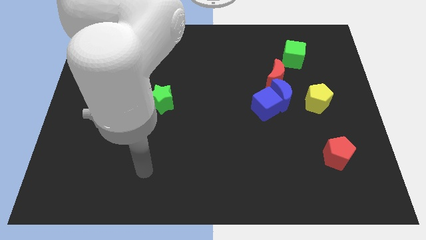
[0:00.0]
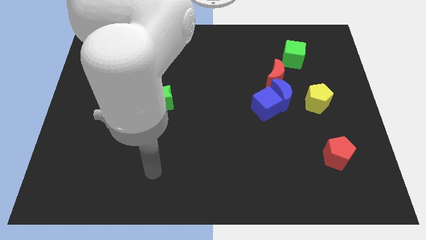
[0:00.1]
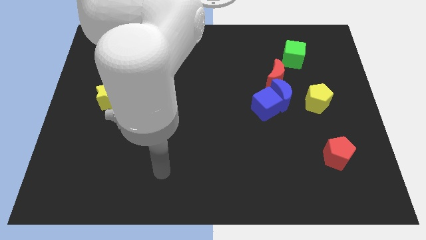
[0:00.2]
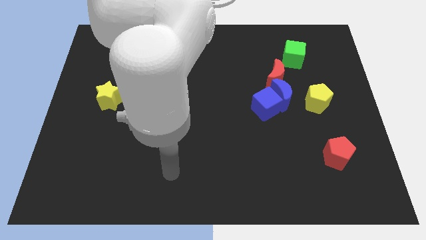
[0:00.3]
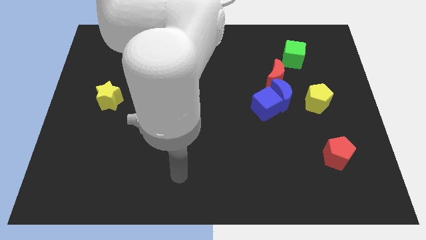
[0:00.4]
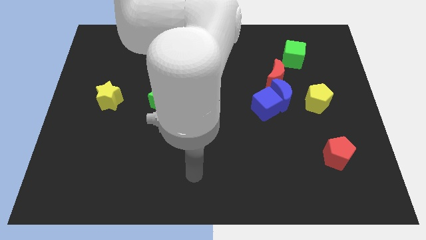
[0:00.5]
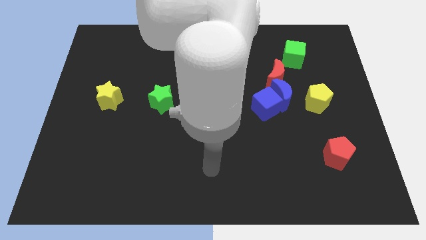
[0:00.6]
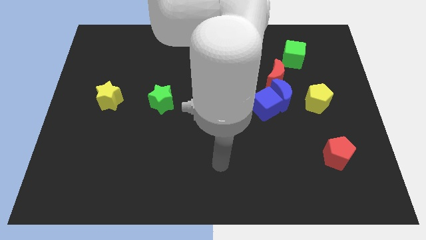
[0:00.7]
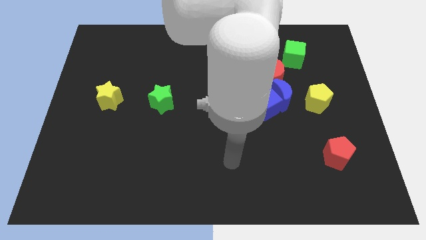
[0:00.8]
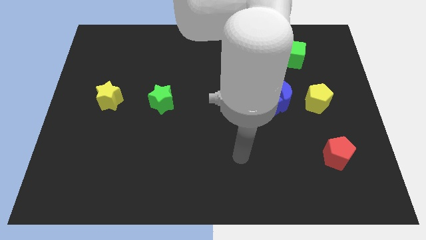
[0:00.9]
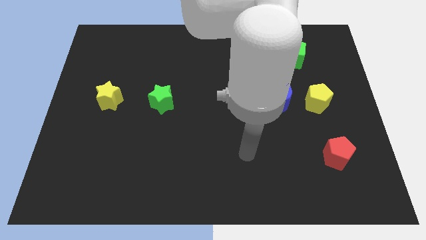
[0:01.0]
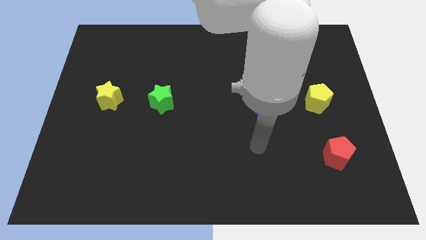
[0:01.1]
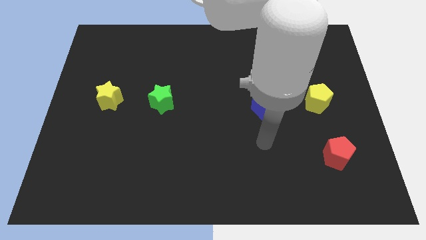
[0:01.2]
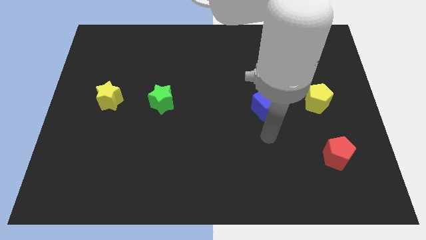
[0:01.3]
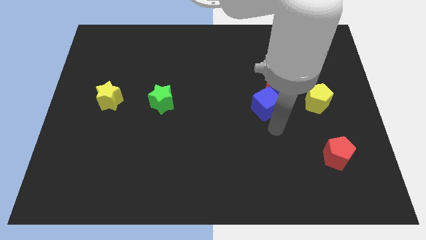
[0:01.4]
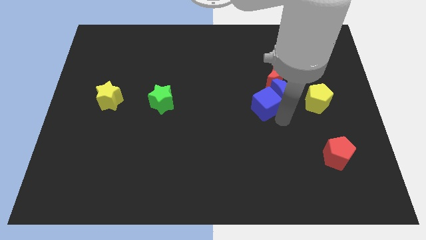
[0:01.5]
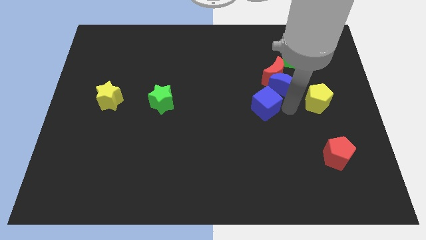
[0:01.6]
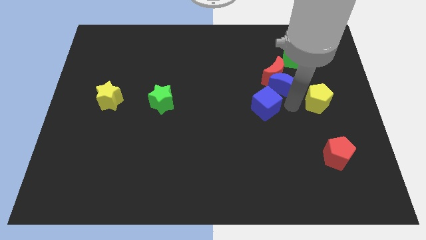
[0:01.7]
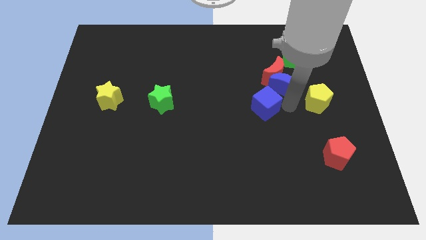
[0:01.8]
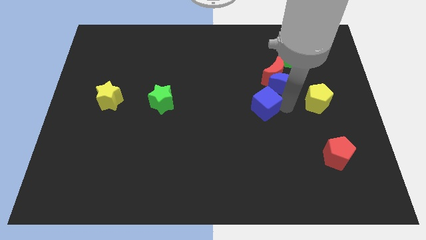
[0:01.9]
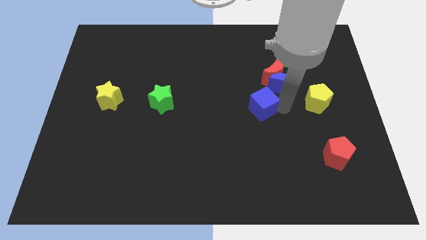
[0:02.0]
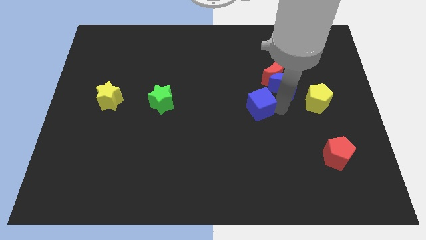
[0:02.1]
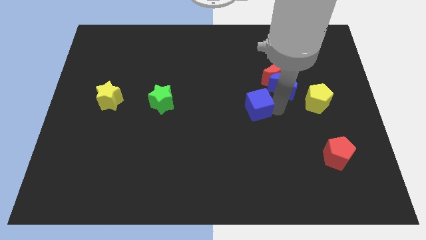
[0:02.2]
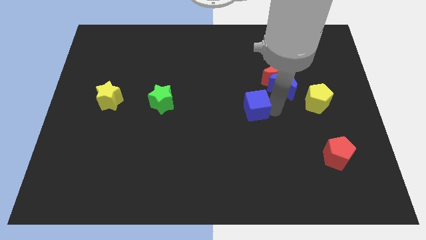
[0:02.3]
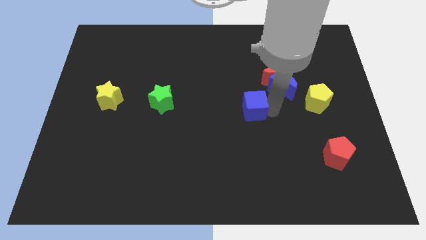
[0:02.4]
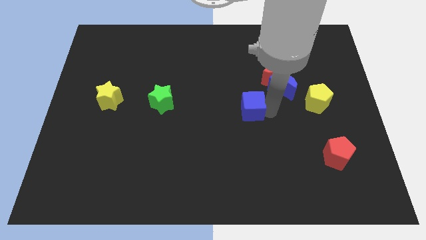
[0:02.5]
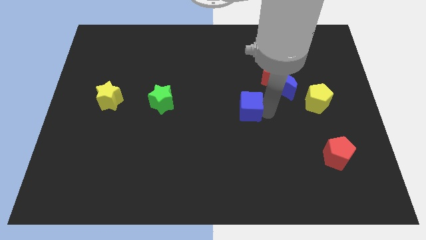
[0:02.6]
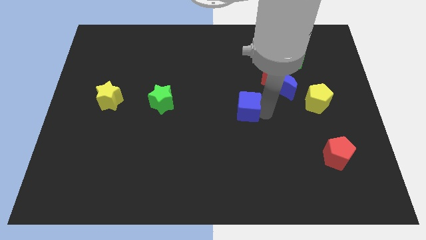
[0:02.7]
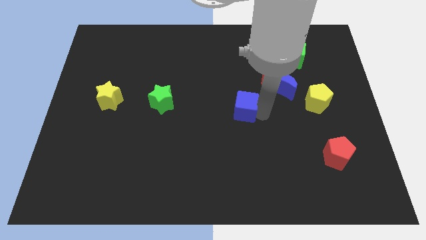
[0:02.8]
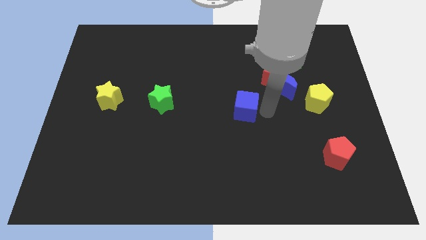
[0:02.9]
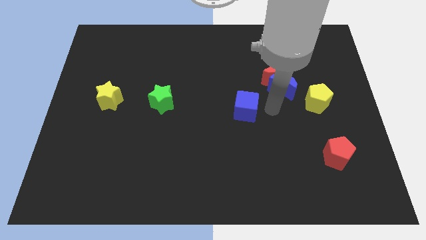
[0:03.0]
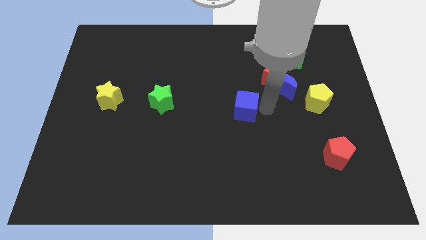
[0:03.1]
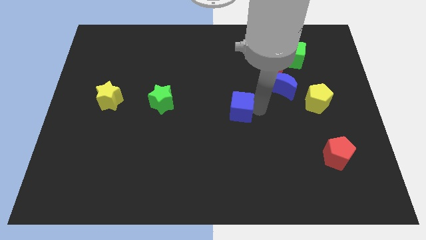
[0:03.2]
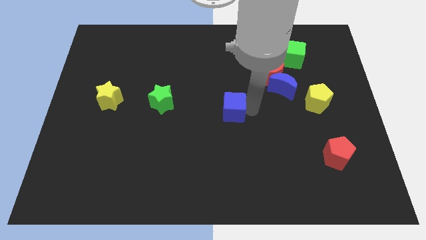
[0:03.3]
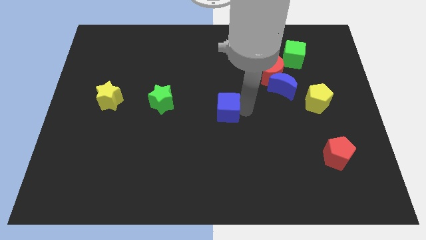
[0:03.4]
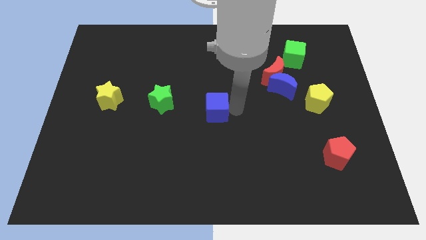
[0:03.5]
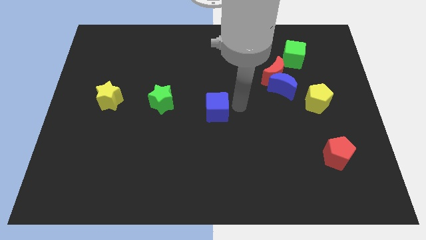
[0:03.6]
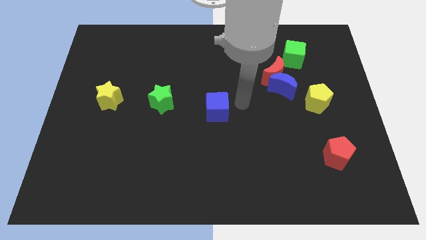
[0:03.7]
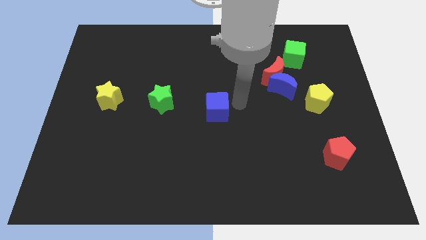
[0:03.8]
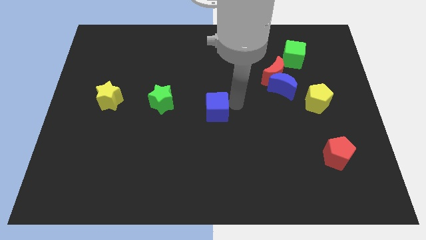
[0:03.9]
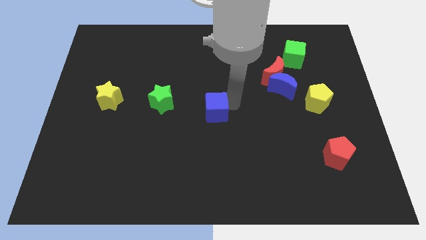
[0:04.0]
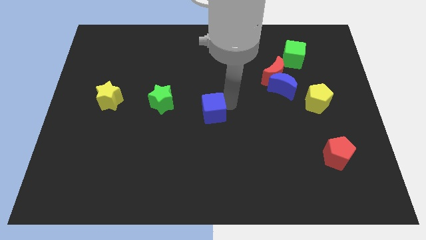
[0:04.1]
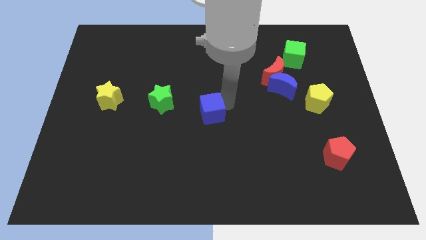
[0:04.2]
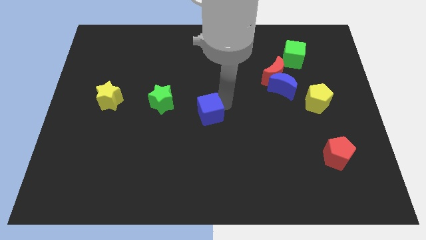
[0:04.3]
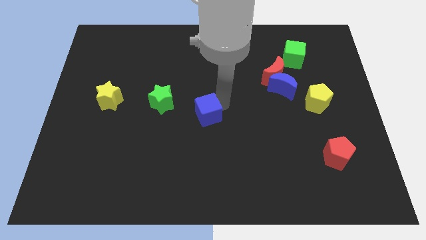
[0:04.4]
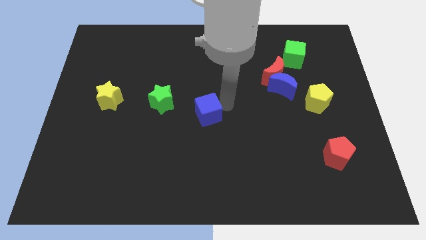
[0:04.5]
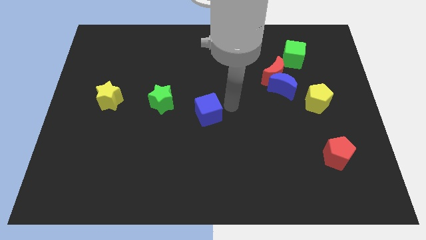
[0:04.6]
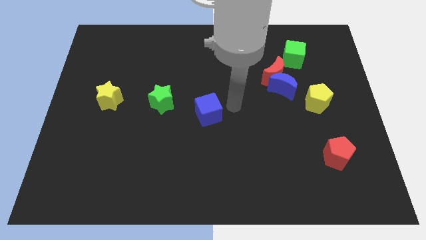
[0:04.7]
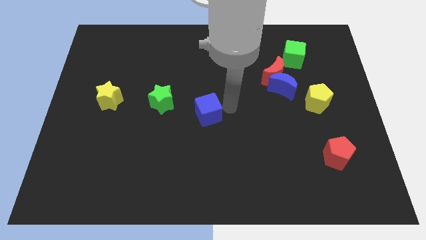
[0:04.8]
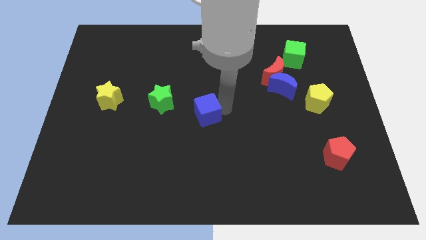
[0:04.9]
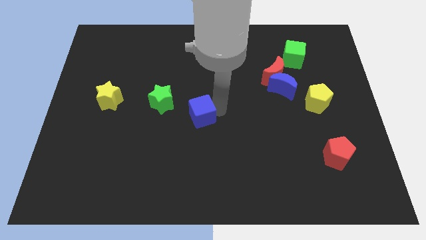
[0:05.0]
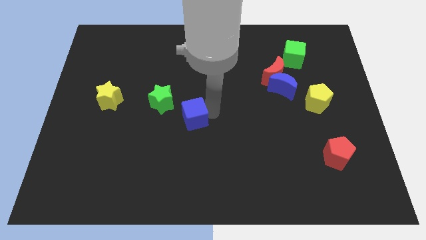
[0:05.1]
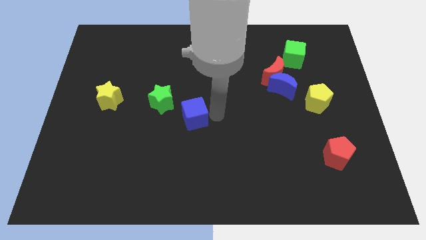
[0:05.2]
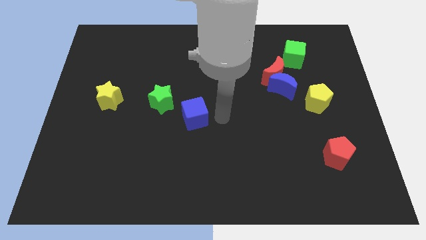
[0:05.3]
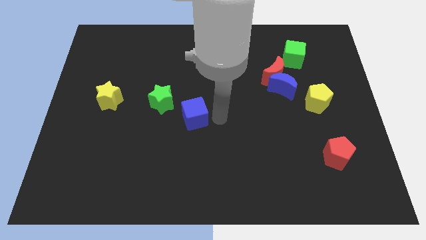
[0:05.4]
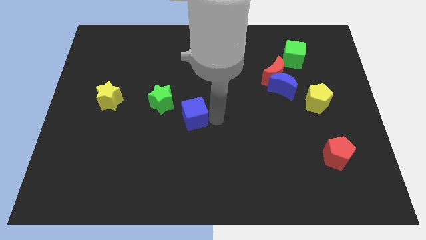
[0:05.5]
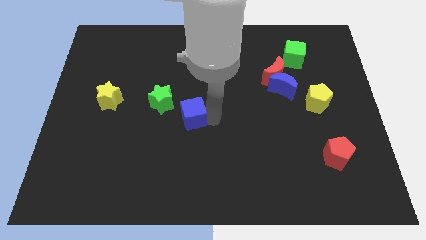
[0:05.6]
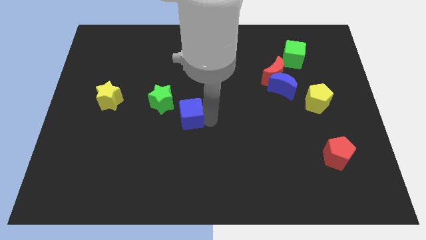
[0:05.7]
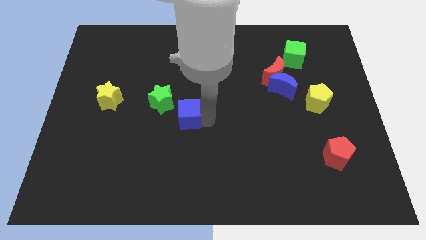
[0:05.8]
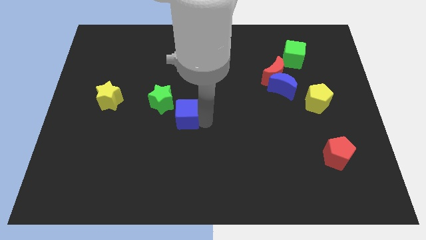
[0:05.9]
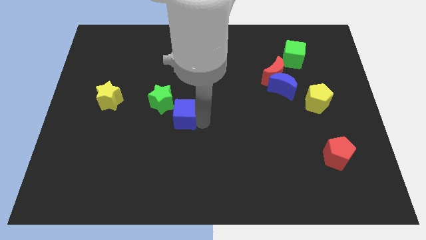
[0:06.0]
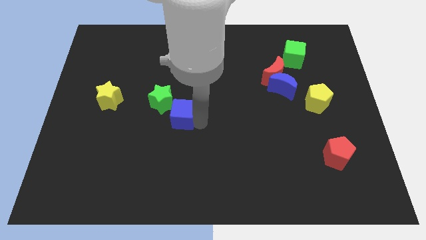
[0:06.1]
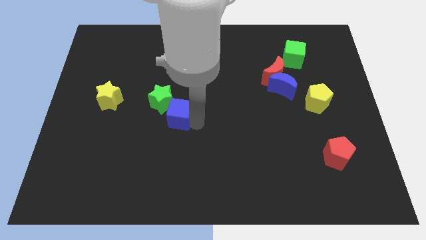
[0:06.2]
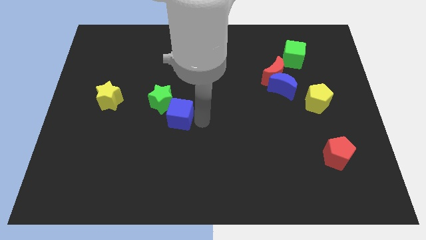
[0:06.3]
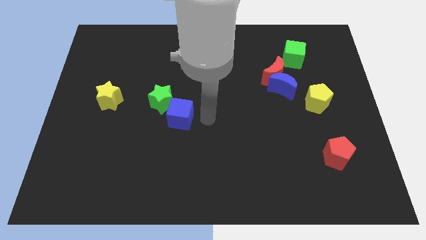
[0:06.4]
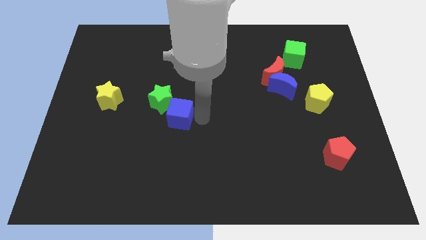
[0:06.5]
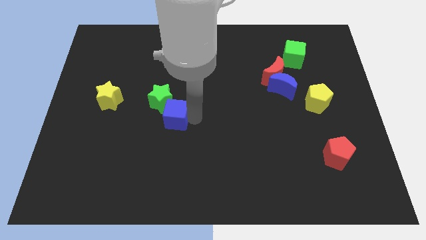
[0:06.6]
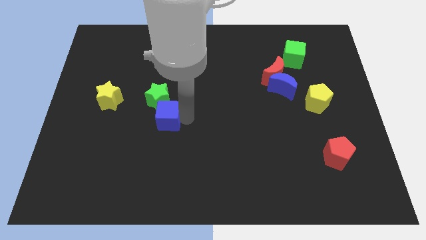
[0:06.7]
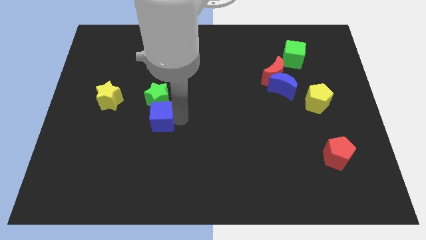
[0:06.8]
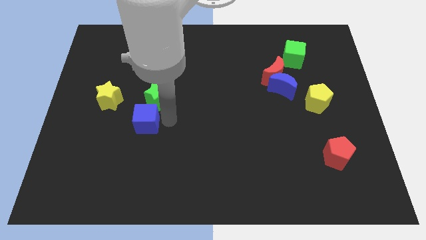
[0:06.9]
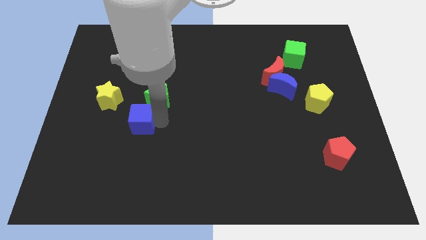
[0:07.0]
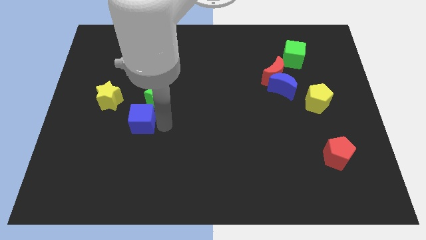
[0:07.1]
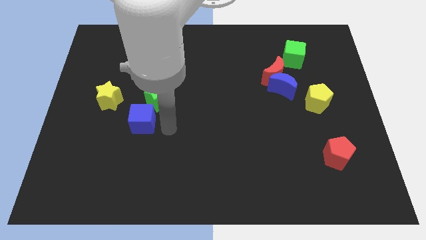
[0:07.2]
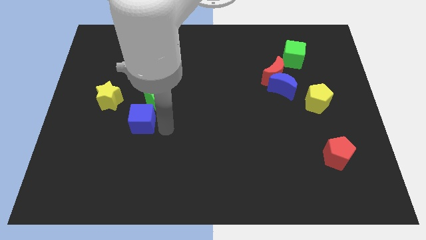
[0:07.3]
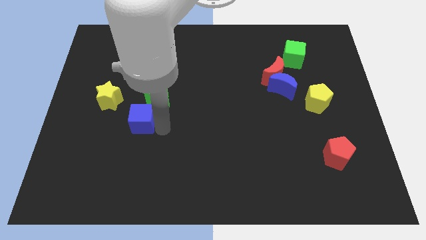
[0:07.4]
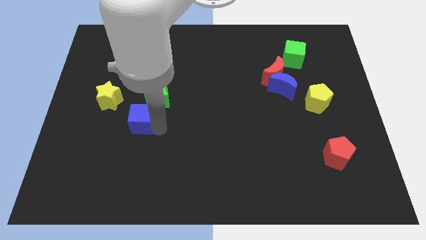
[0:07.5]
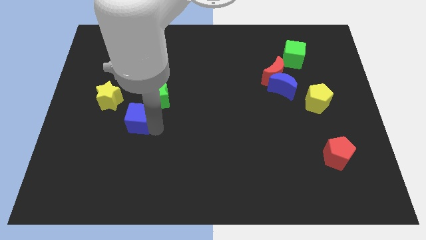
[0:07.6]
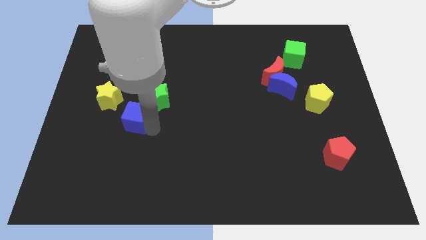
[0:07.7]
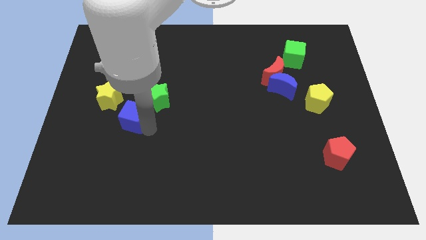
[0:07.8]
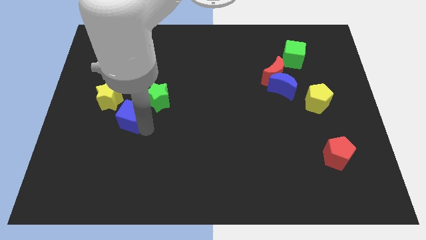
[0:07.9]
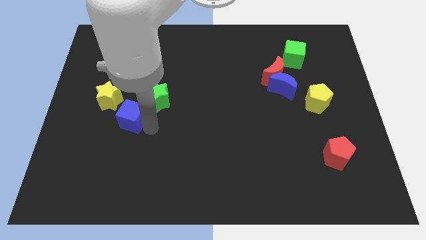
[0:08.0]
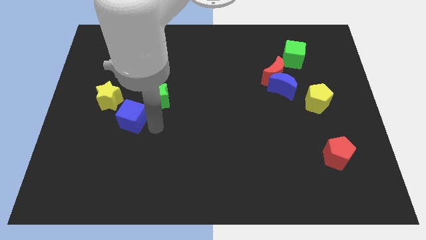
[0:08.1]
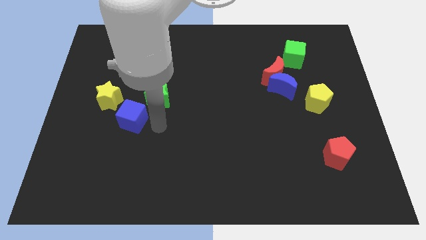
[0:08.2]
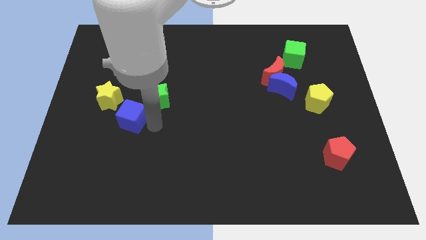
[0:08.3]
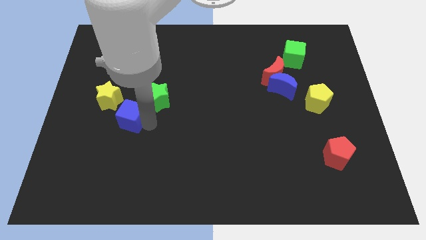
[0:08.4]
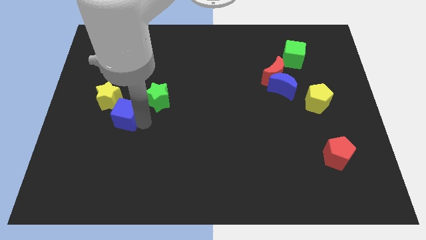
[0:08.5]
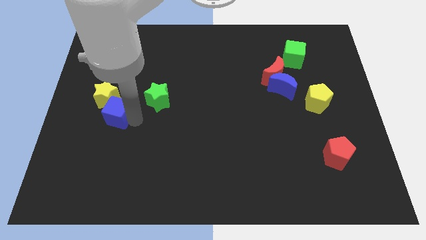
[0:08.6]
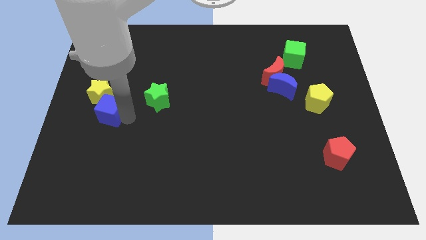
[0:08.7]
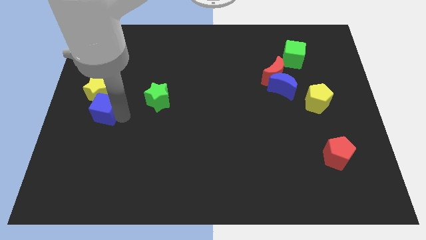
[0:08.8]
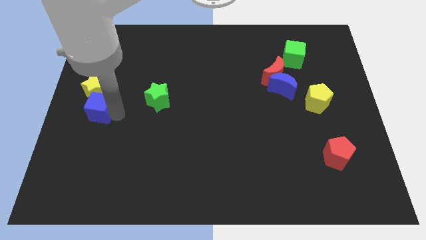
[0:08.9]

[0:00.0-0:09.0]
push the blue cube to the center left
